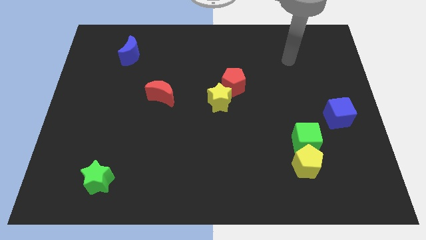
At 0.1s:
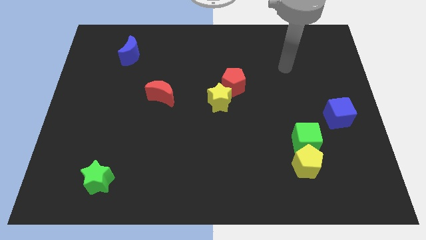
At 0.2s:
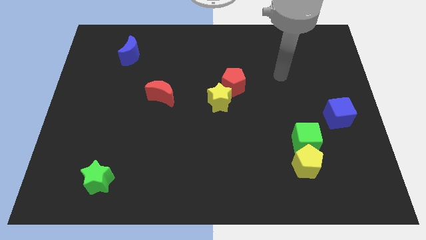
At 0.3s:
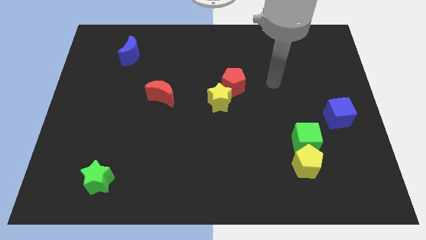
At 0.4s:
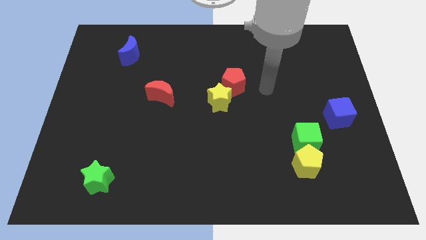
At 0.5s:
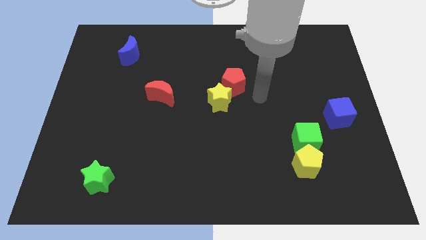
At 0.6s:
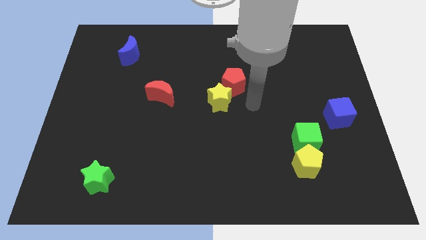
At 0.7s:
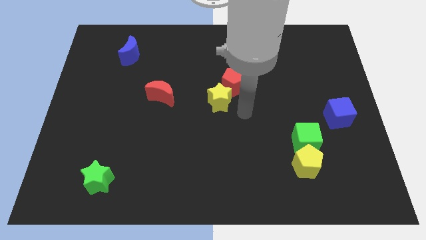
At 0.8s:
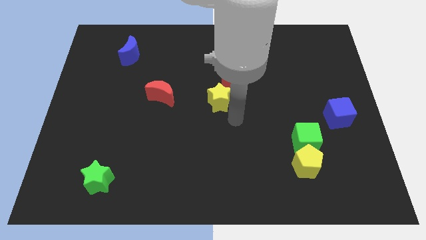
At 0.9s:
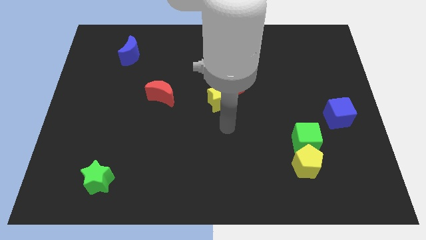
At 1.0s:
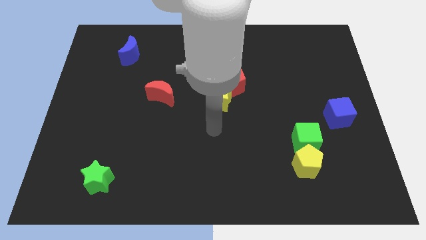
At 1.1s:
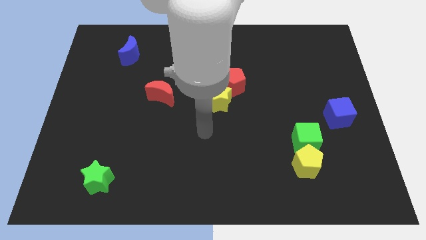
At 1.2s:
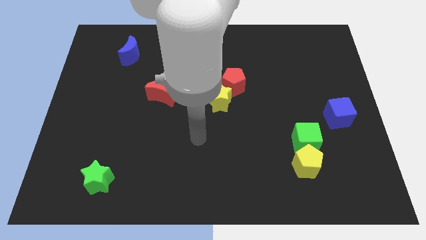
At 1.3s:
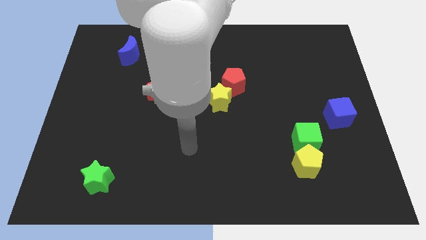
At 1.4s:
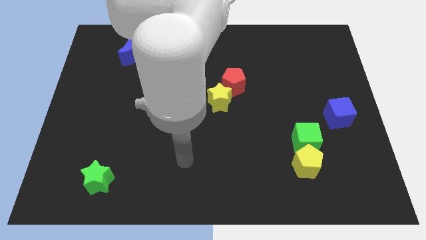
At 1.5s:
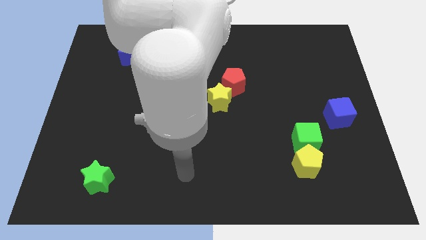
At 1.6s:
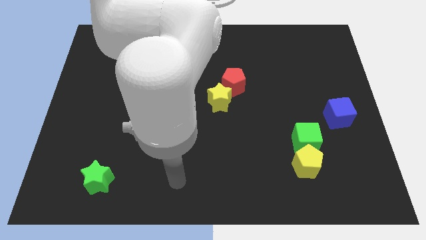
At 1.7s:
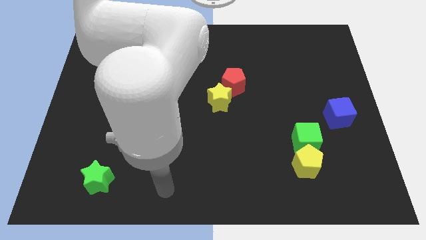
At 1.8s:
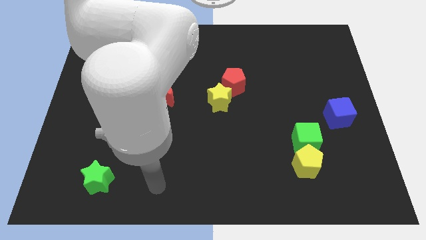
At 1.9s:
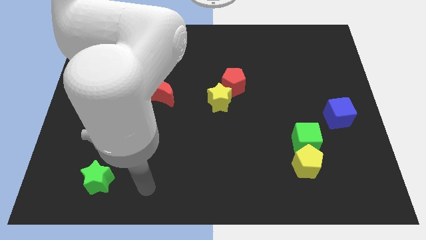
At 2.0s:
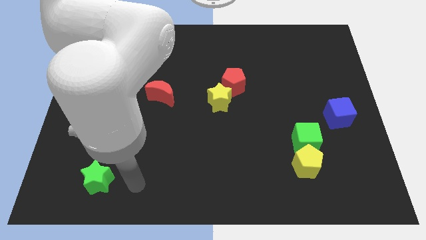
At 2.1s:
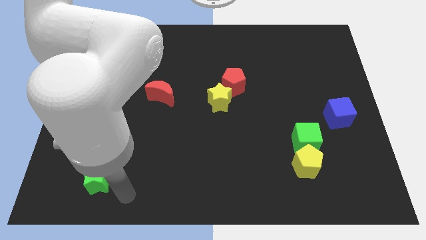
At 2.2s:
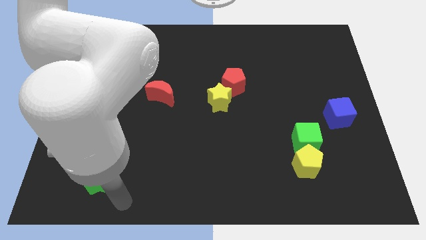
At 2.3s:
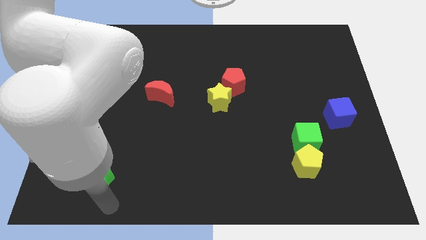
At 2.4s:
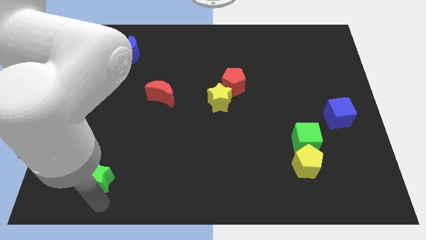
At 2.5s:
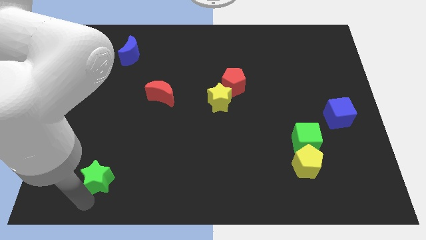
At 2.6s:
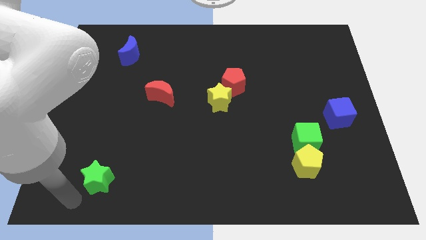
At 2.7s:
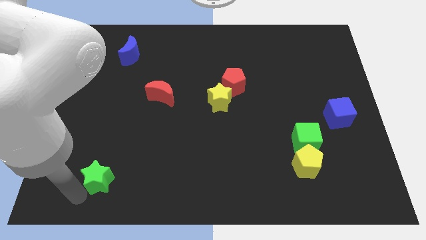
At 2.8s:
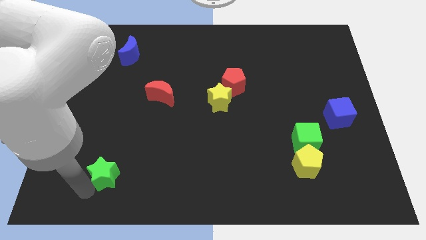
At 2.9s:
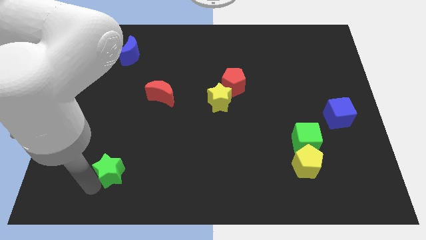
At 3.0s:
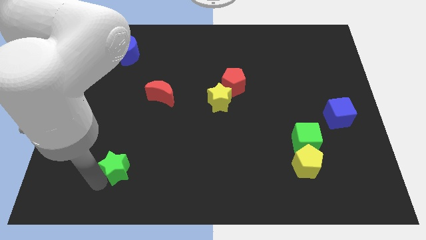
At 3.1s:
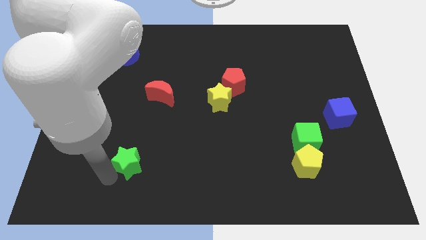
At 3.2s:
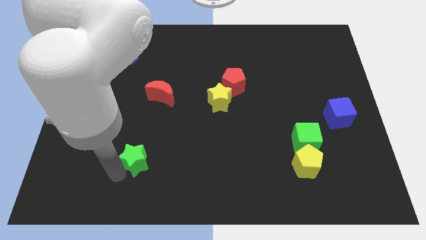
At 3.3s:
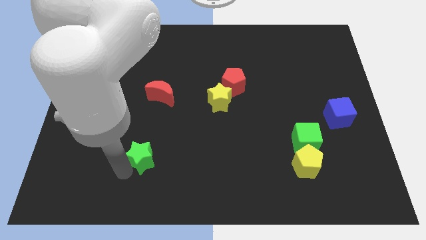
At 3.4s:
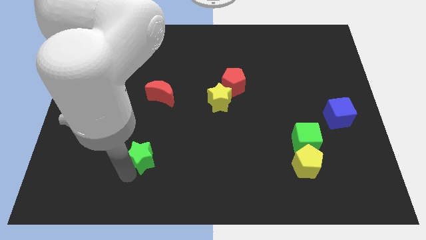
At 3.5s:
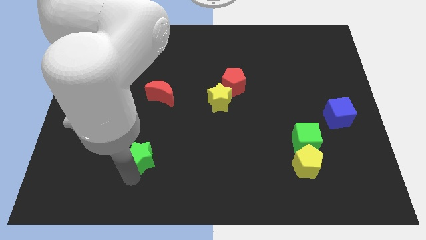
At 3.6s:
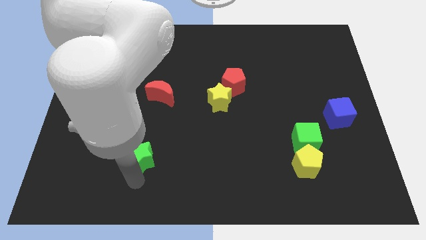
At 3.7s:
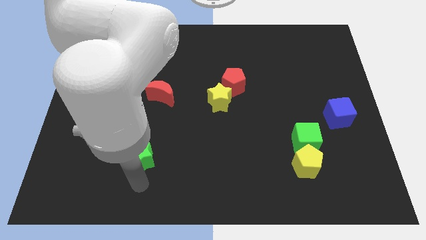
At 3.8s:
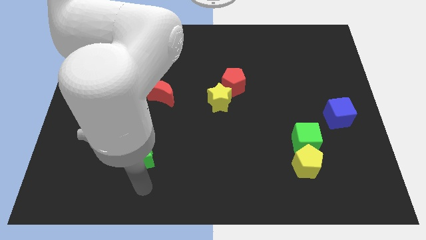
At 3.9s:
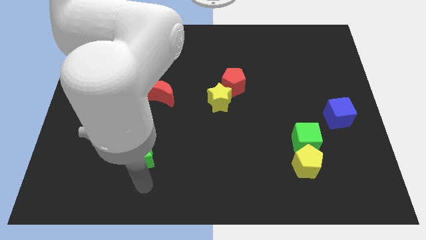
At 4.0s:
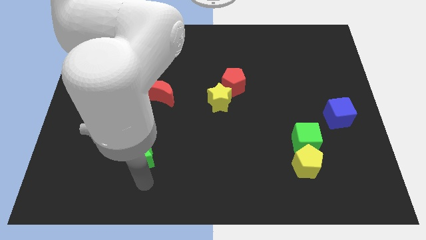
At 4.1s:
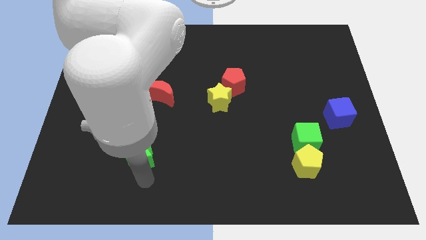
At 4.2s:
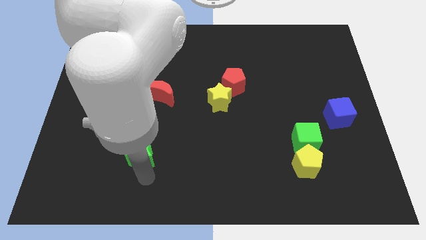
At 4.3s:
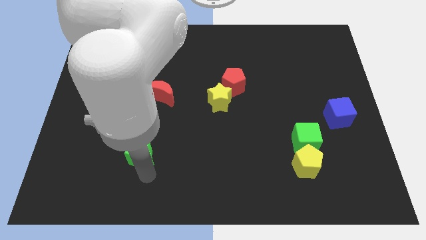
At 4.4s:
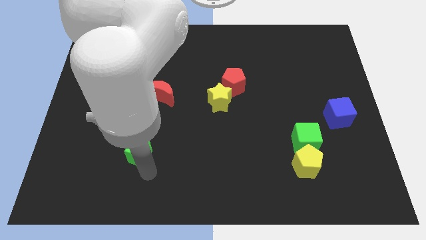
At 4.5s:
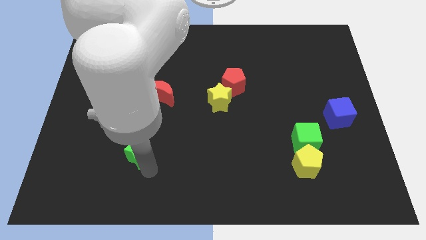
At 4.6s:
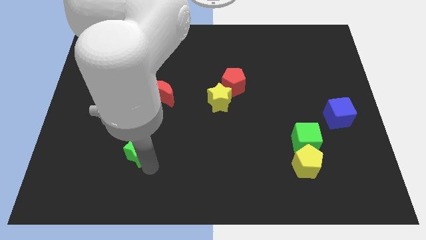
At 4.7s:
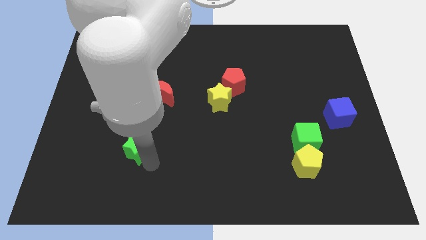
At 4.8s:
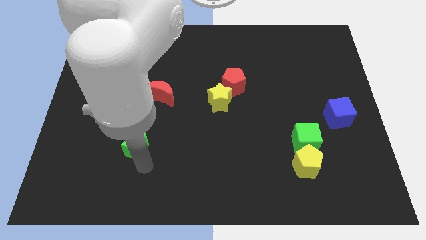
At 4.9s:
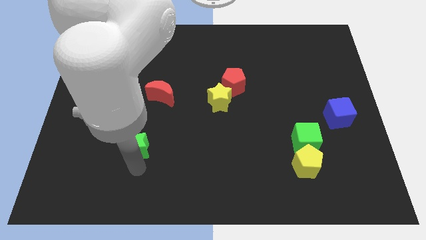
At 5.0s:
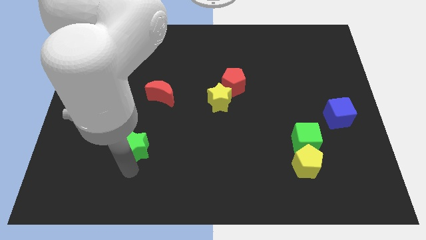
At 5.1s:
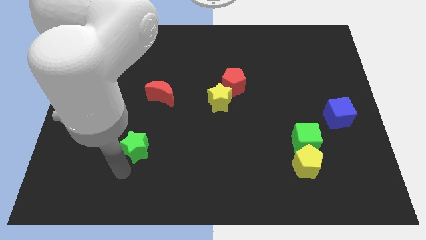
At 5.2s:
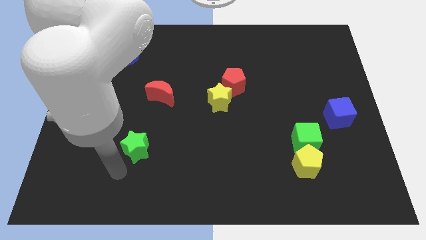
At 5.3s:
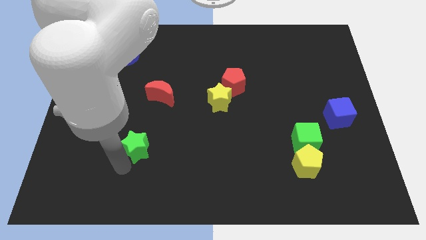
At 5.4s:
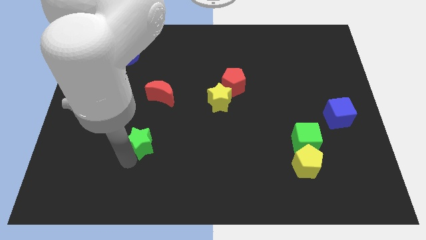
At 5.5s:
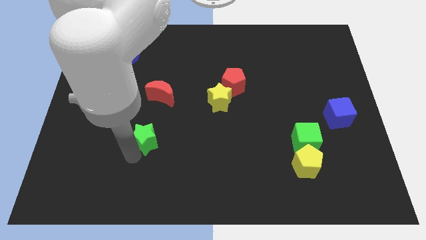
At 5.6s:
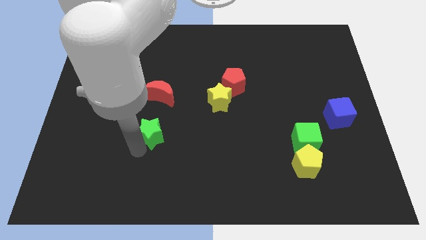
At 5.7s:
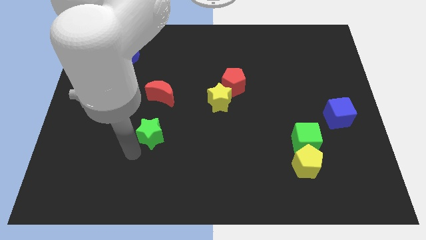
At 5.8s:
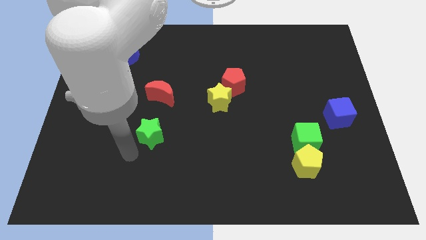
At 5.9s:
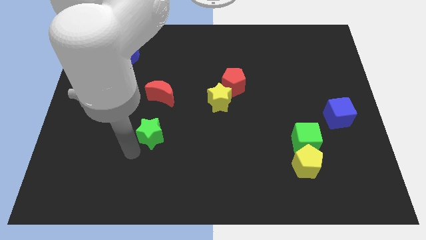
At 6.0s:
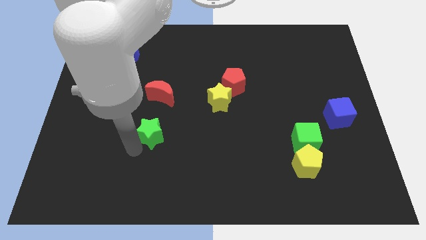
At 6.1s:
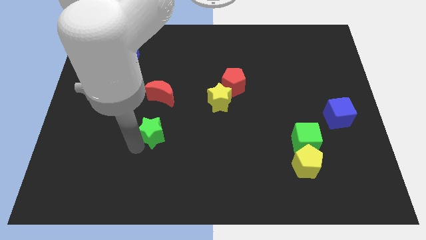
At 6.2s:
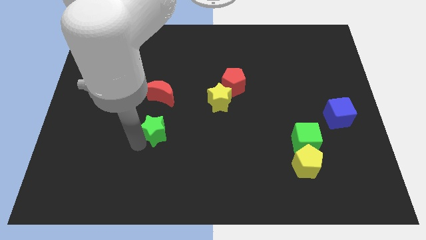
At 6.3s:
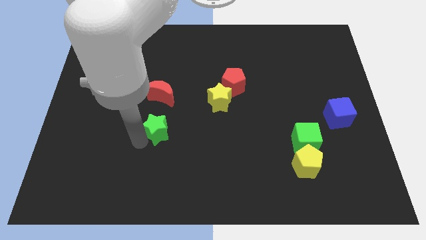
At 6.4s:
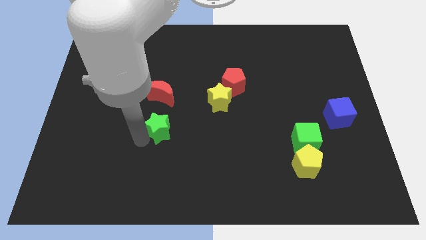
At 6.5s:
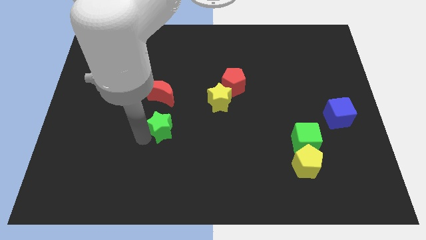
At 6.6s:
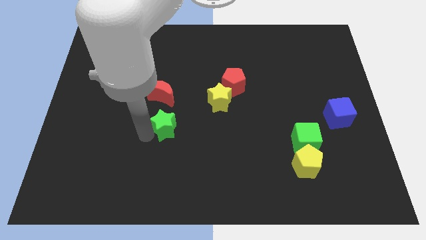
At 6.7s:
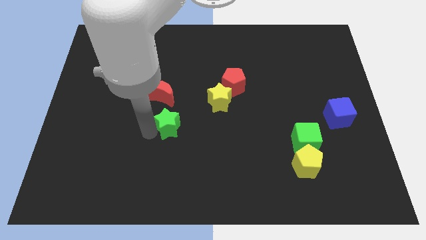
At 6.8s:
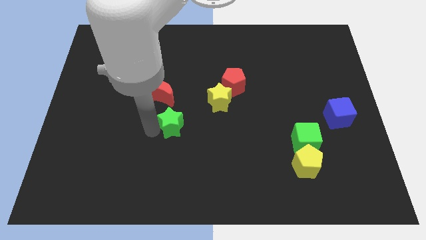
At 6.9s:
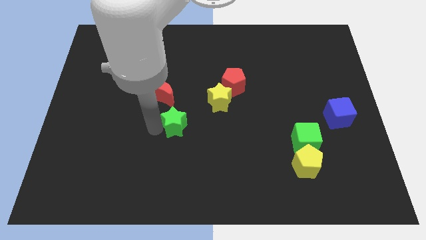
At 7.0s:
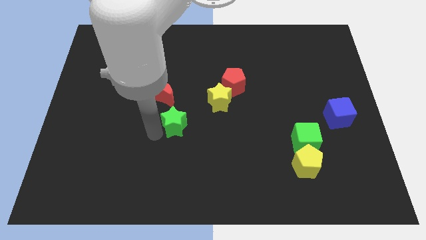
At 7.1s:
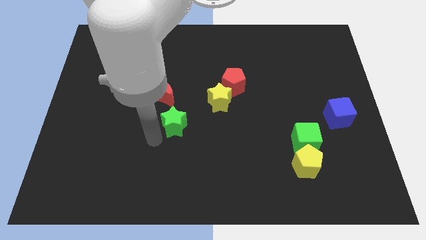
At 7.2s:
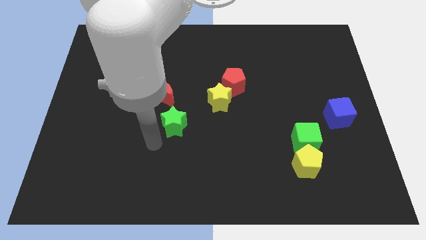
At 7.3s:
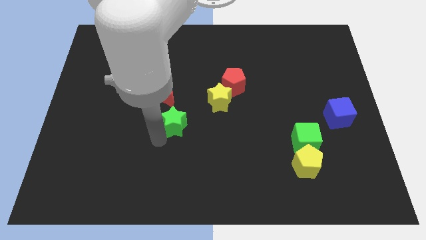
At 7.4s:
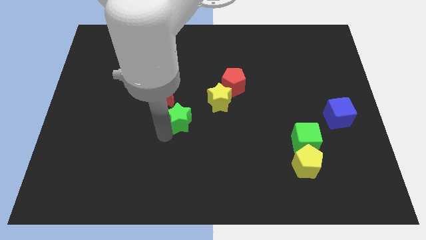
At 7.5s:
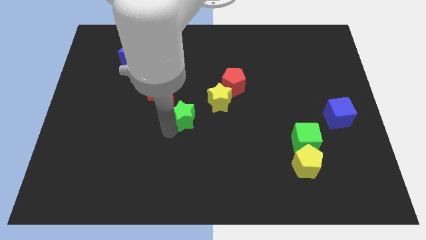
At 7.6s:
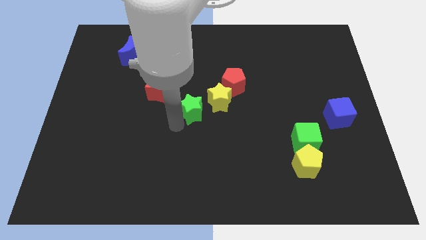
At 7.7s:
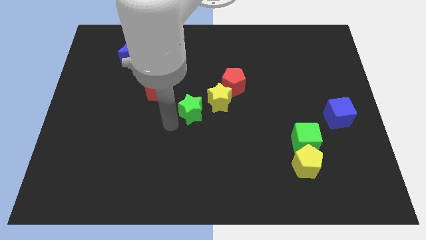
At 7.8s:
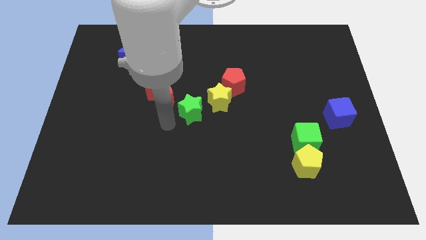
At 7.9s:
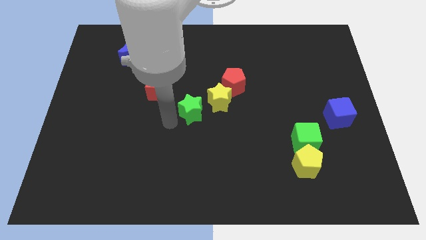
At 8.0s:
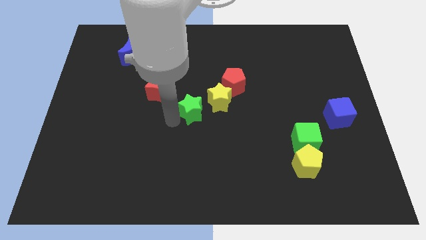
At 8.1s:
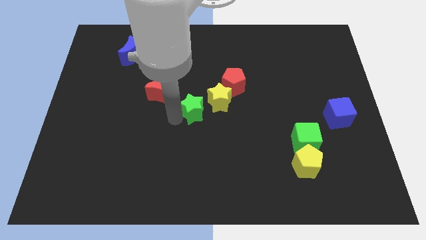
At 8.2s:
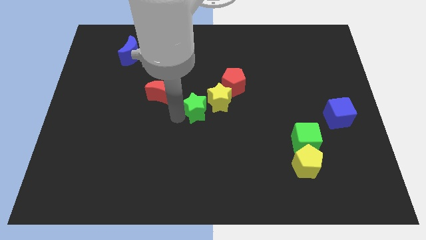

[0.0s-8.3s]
slide the green star to the yellow star
